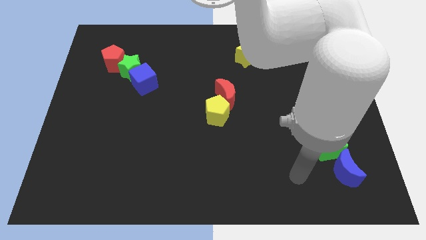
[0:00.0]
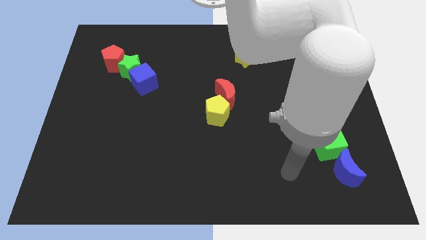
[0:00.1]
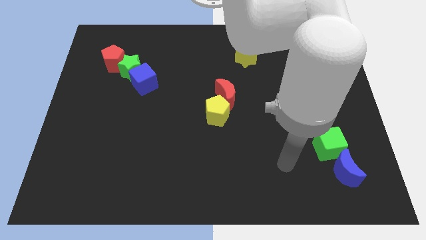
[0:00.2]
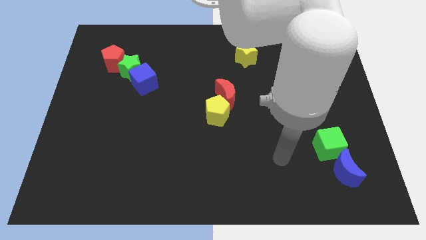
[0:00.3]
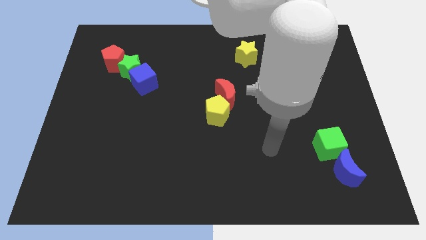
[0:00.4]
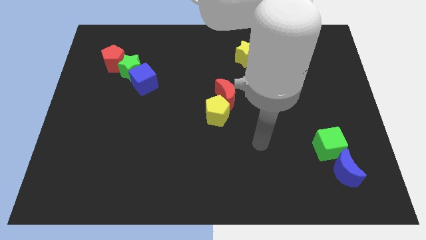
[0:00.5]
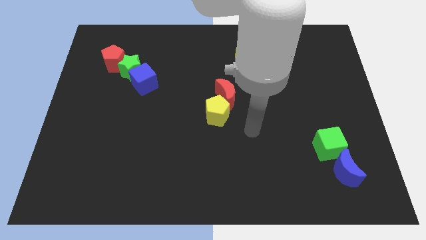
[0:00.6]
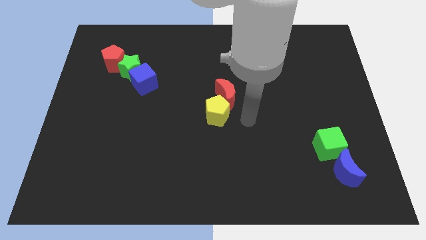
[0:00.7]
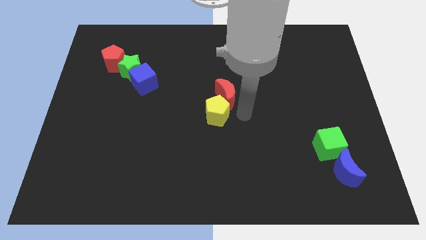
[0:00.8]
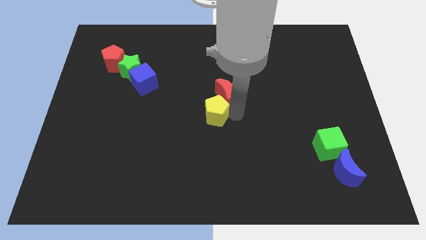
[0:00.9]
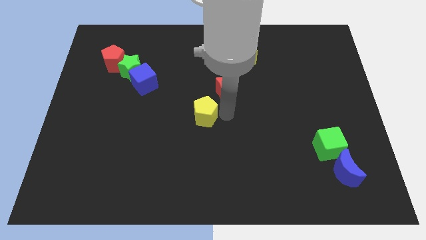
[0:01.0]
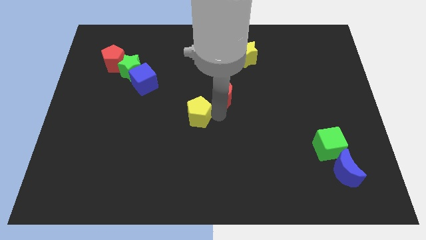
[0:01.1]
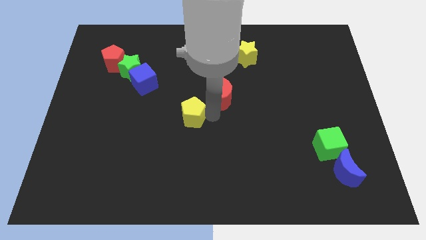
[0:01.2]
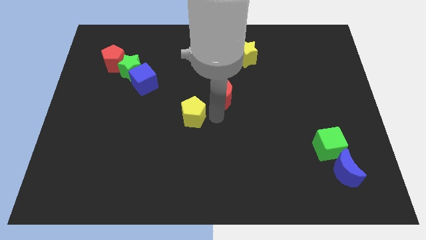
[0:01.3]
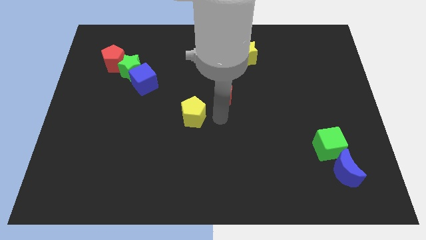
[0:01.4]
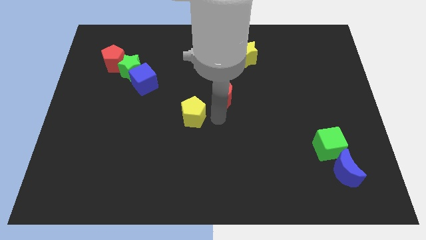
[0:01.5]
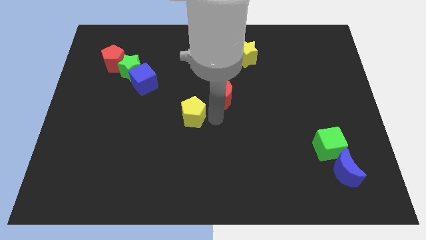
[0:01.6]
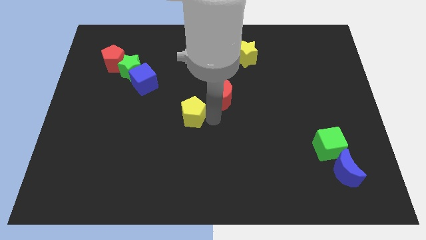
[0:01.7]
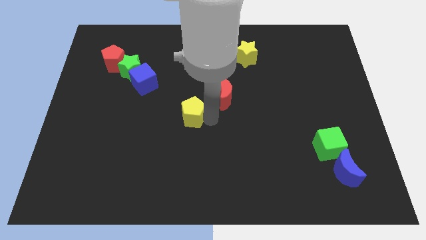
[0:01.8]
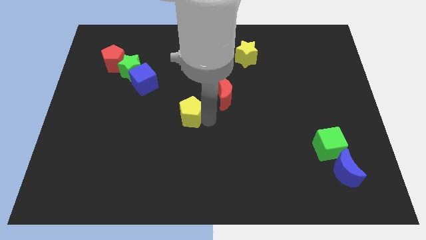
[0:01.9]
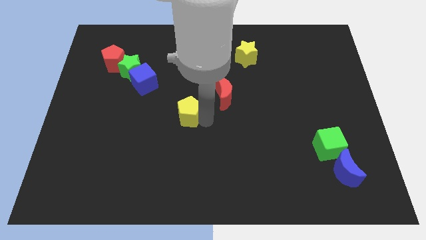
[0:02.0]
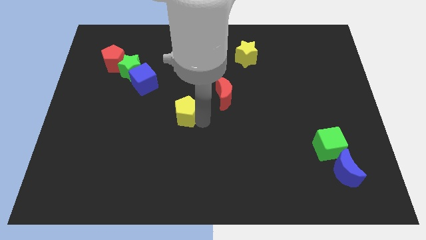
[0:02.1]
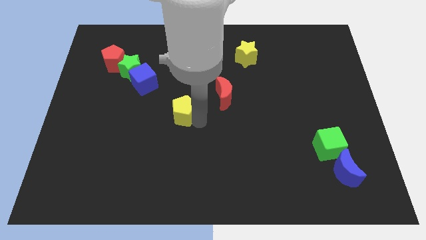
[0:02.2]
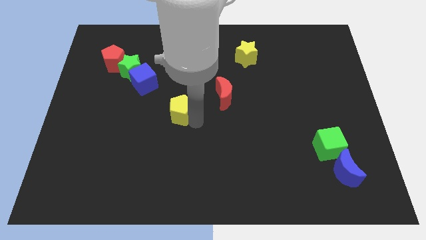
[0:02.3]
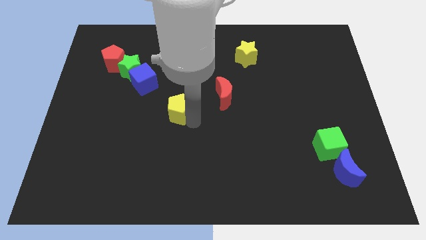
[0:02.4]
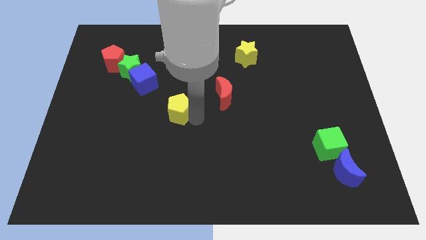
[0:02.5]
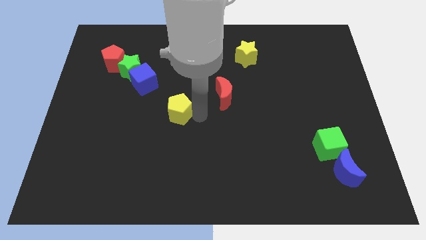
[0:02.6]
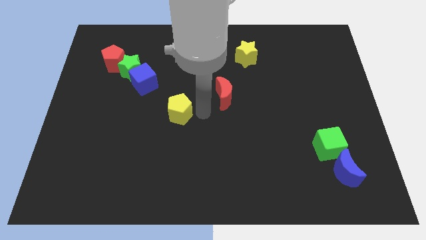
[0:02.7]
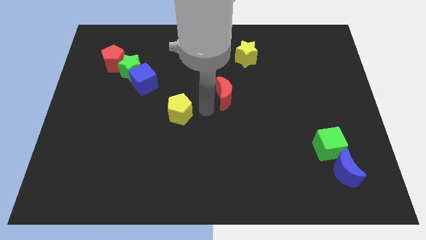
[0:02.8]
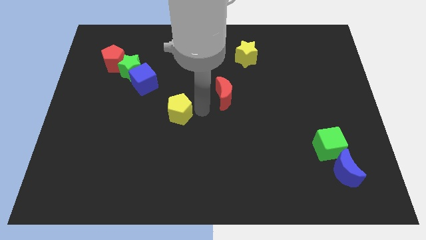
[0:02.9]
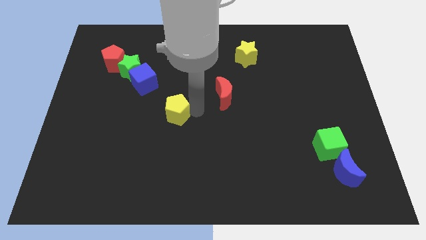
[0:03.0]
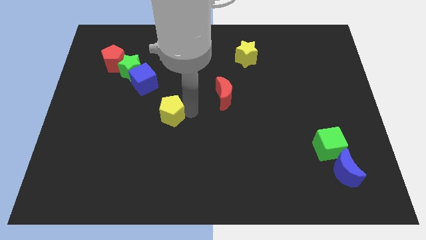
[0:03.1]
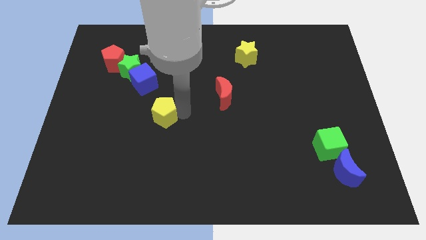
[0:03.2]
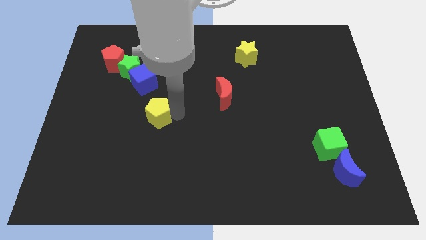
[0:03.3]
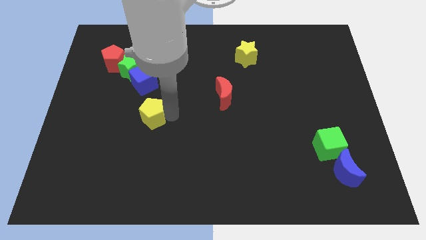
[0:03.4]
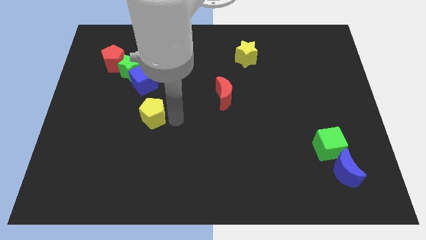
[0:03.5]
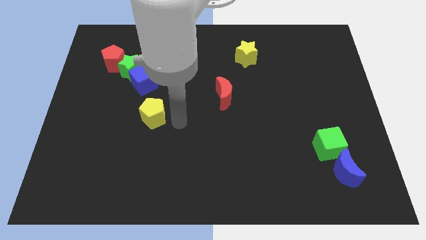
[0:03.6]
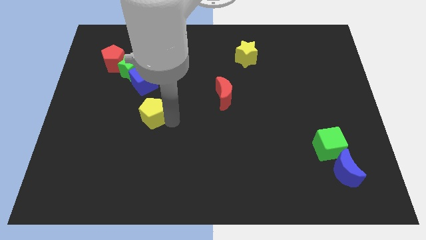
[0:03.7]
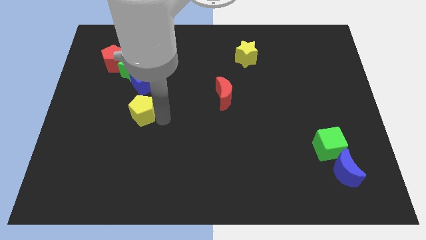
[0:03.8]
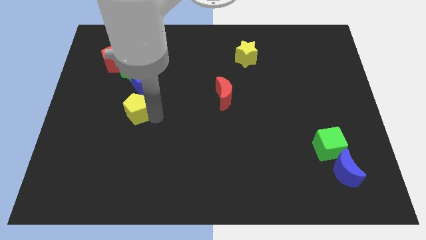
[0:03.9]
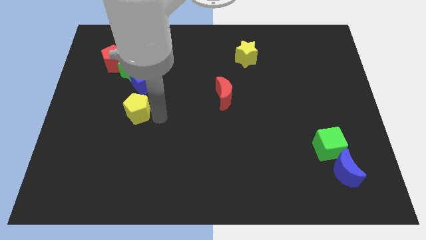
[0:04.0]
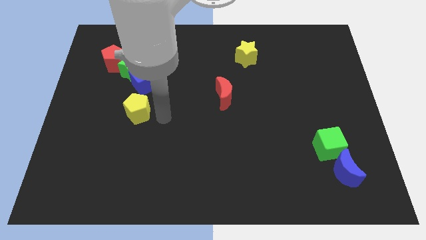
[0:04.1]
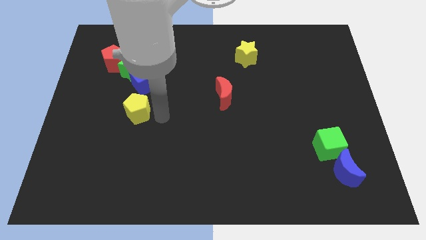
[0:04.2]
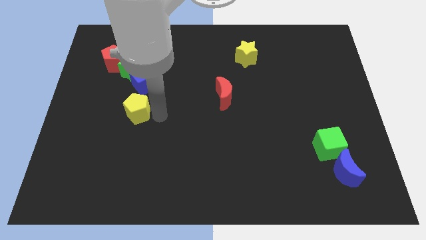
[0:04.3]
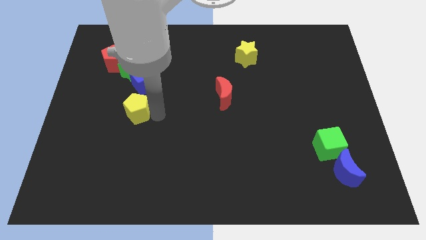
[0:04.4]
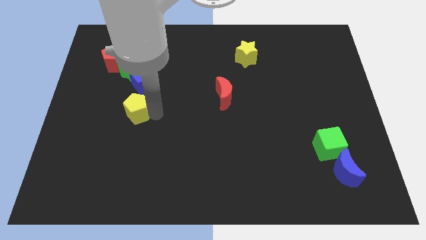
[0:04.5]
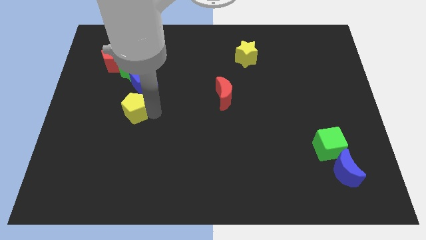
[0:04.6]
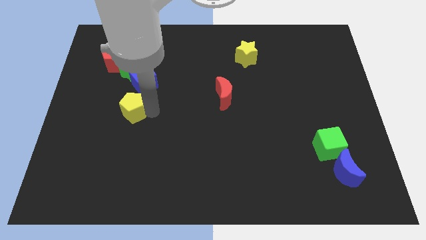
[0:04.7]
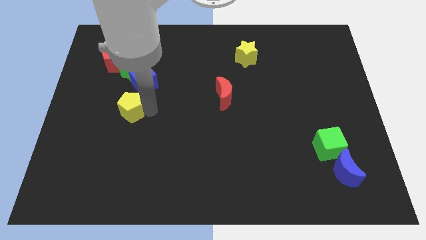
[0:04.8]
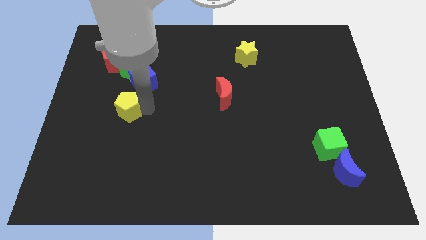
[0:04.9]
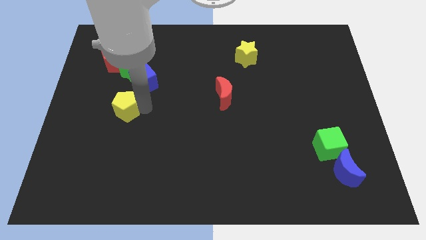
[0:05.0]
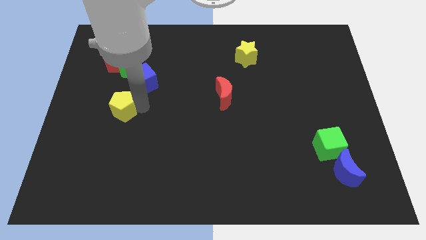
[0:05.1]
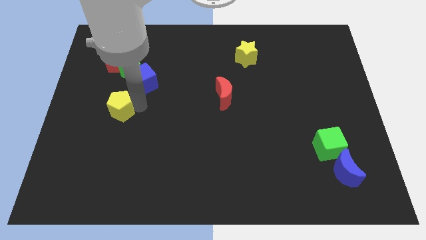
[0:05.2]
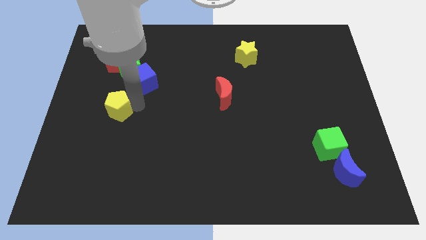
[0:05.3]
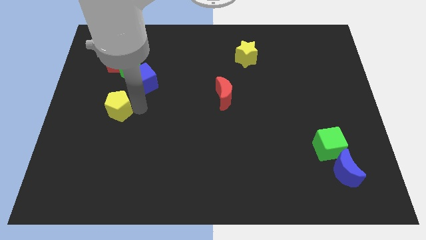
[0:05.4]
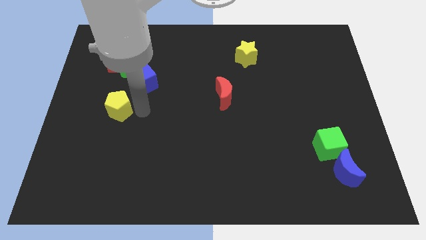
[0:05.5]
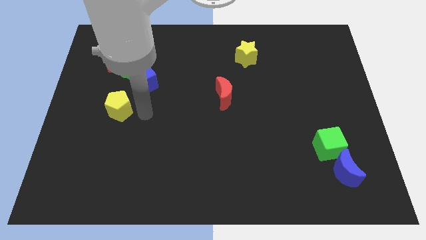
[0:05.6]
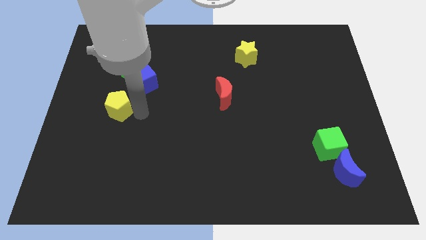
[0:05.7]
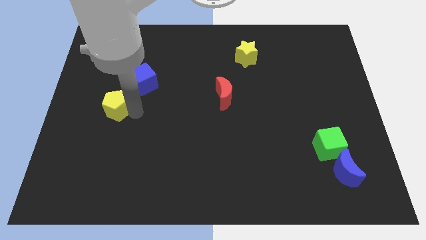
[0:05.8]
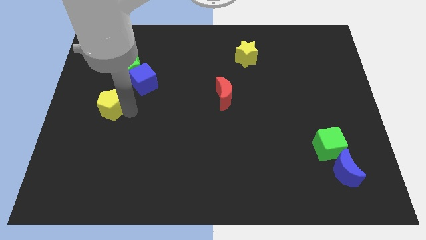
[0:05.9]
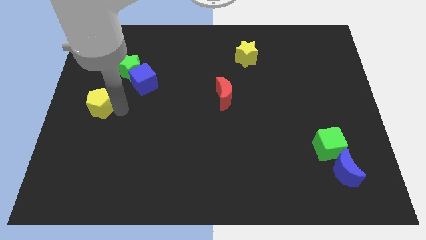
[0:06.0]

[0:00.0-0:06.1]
put the yellow pentagon to the left side
